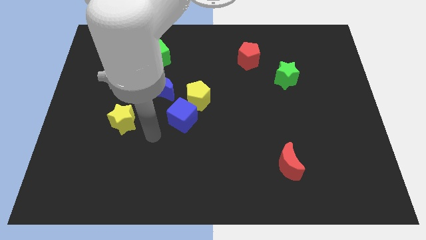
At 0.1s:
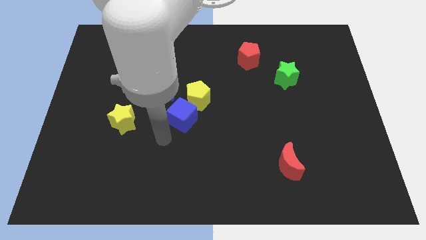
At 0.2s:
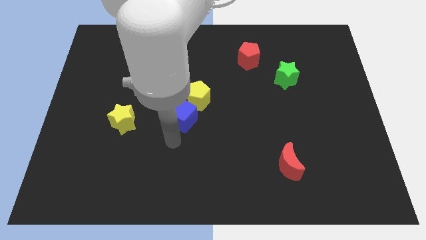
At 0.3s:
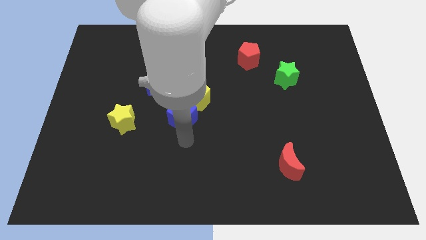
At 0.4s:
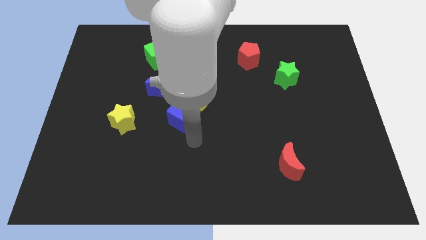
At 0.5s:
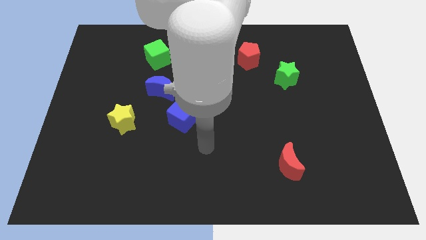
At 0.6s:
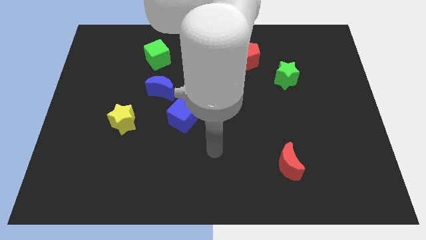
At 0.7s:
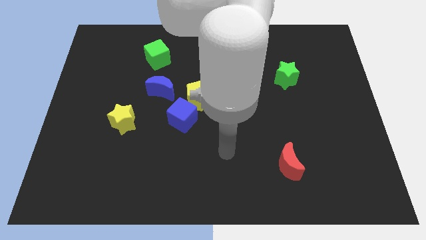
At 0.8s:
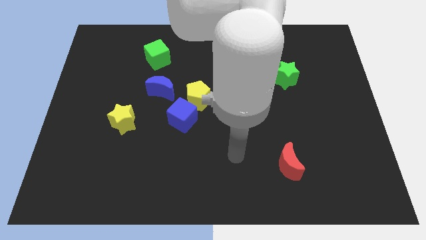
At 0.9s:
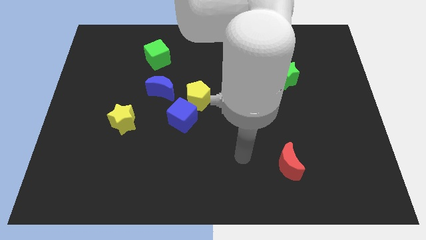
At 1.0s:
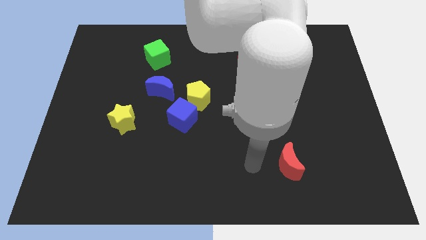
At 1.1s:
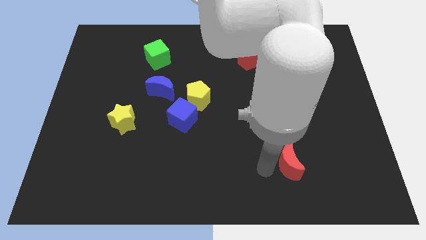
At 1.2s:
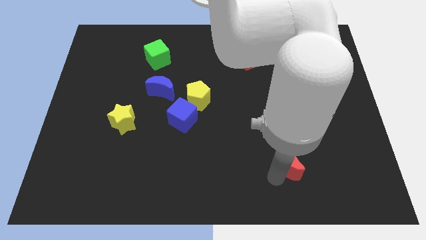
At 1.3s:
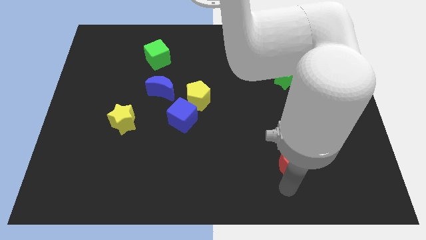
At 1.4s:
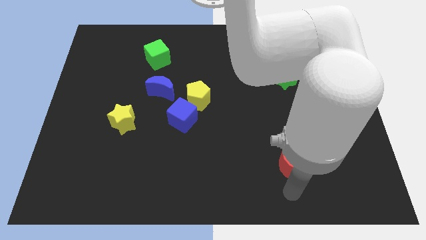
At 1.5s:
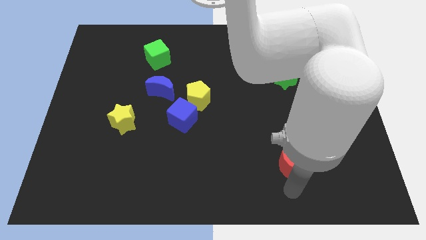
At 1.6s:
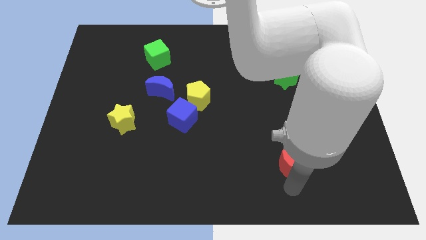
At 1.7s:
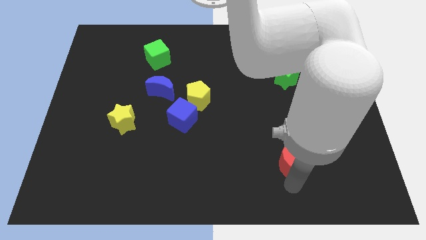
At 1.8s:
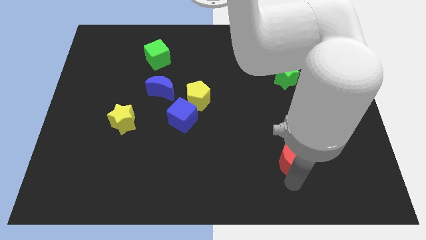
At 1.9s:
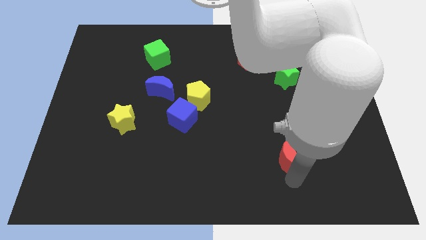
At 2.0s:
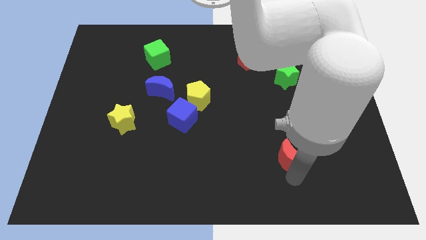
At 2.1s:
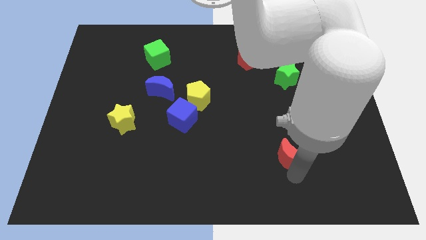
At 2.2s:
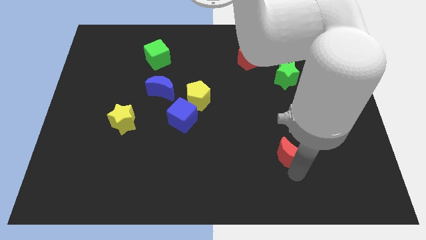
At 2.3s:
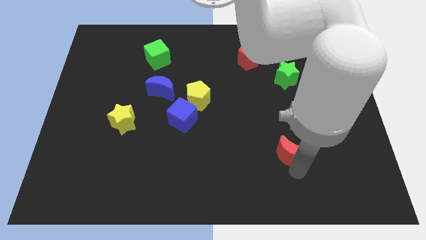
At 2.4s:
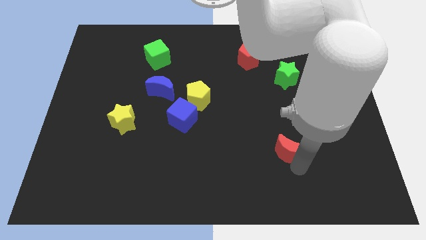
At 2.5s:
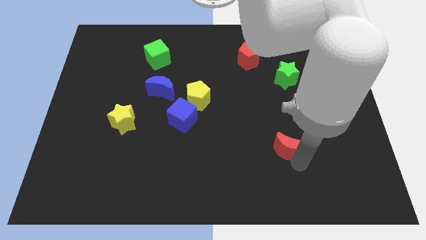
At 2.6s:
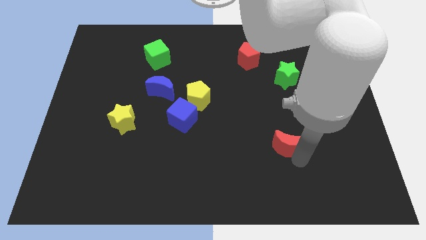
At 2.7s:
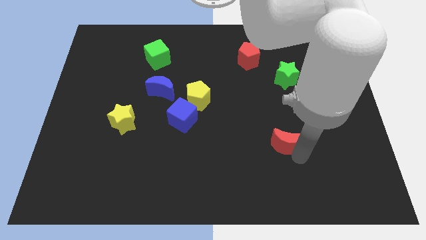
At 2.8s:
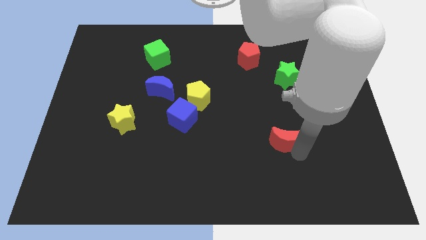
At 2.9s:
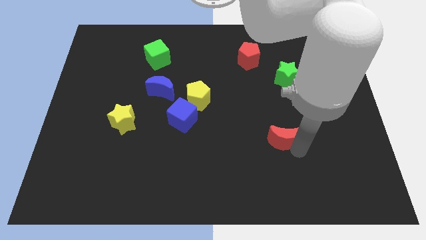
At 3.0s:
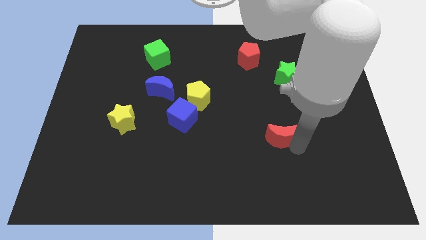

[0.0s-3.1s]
move the red moon a little upwards

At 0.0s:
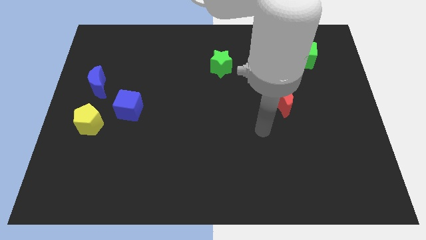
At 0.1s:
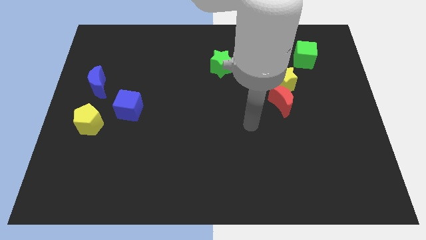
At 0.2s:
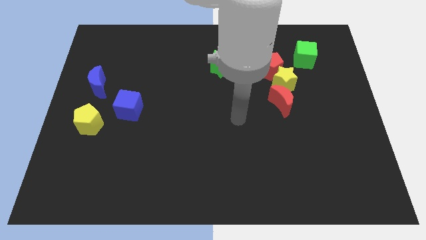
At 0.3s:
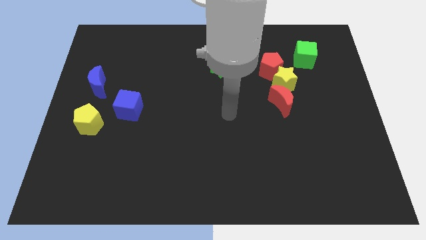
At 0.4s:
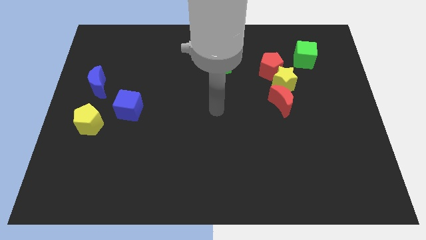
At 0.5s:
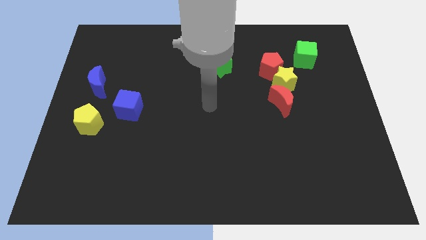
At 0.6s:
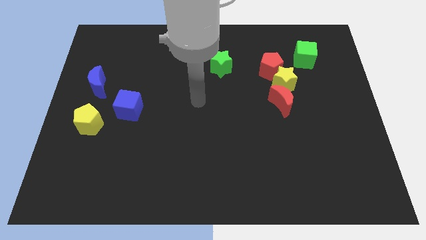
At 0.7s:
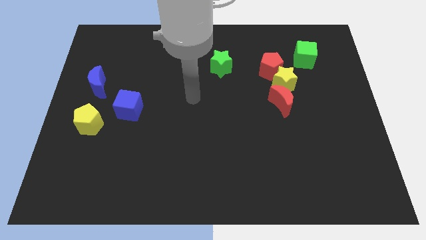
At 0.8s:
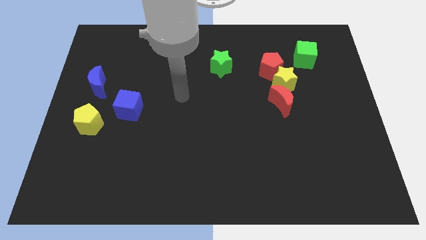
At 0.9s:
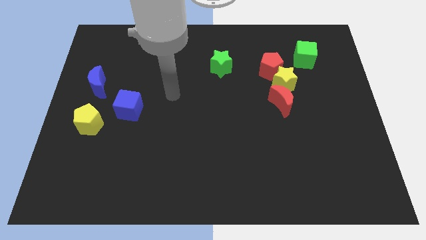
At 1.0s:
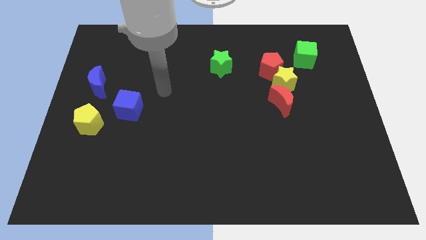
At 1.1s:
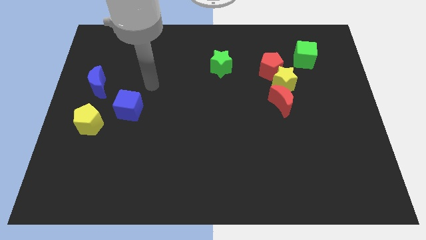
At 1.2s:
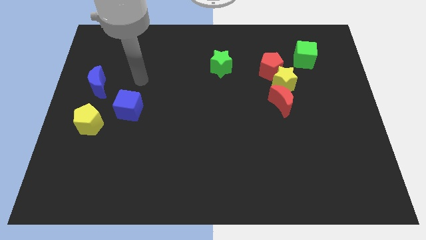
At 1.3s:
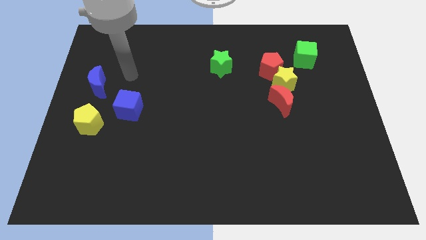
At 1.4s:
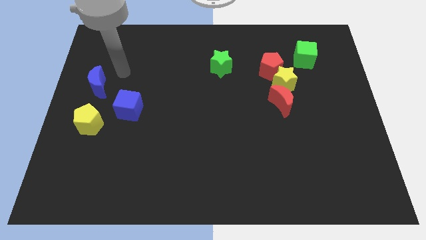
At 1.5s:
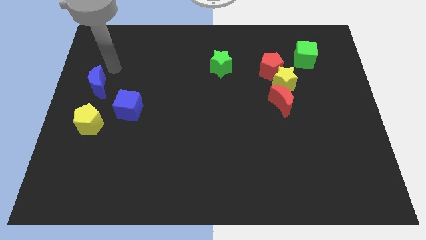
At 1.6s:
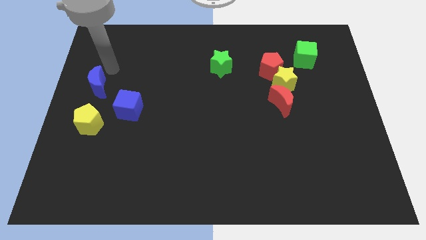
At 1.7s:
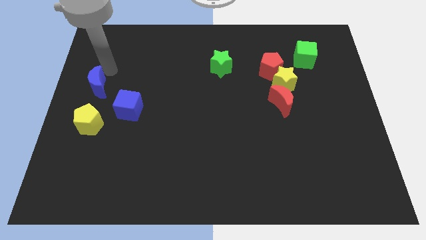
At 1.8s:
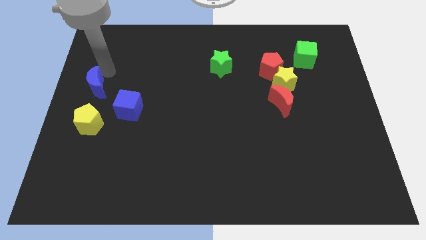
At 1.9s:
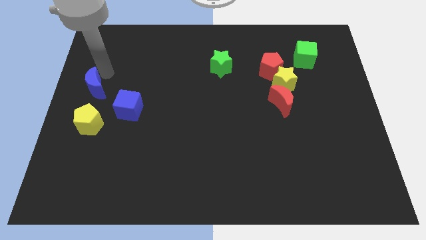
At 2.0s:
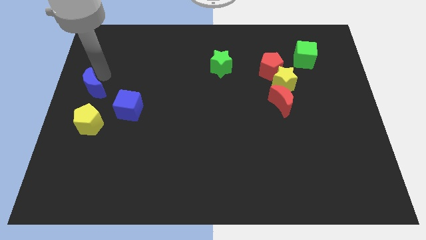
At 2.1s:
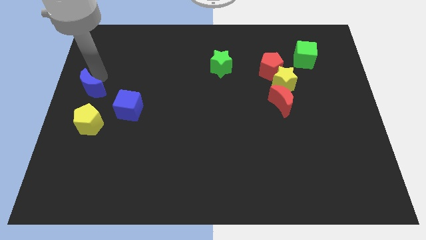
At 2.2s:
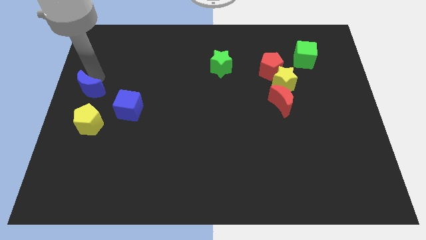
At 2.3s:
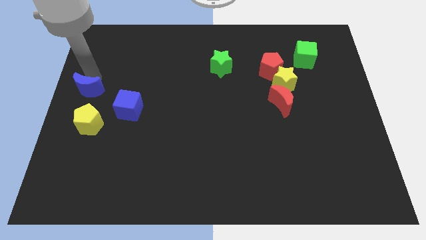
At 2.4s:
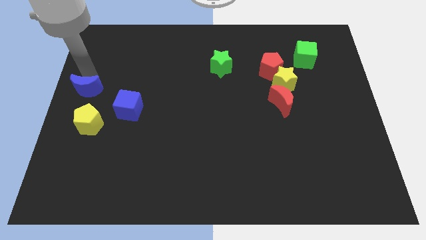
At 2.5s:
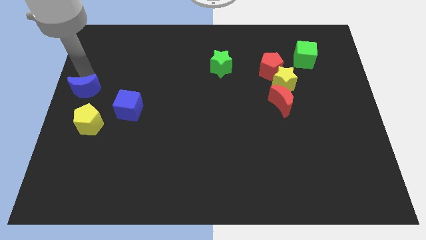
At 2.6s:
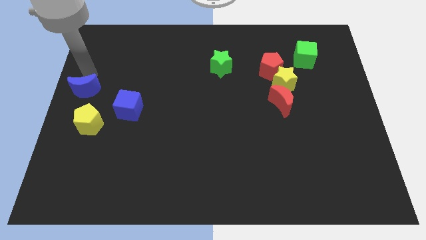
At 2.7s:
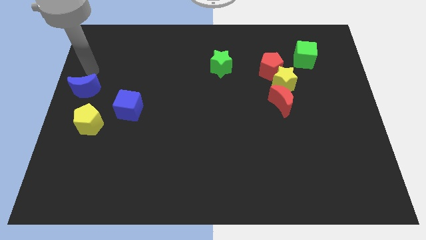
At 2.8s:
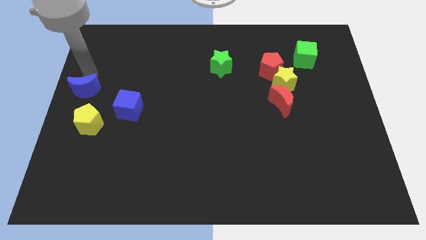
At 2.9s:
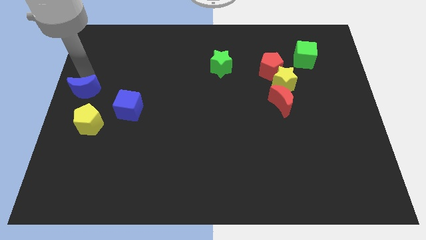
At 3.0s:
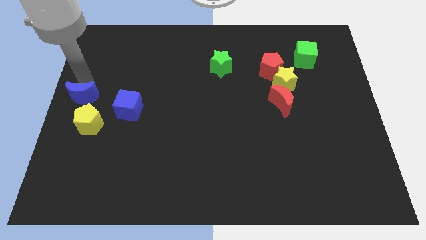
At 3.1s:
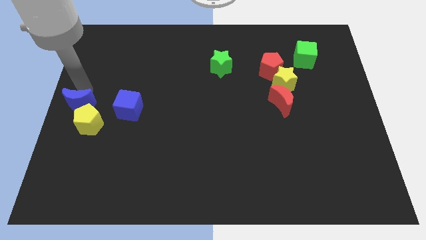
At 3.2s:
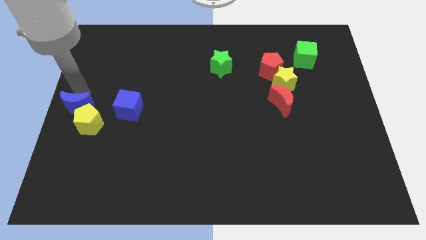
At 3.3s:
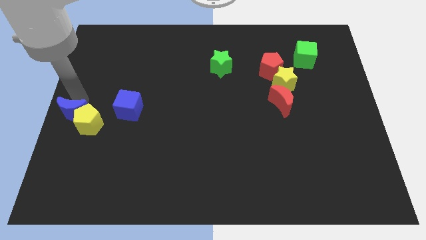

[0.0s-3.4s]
slide the blue moon slightly down

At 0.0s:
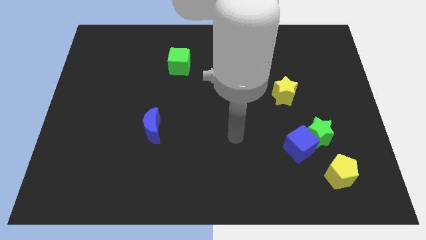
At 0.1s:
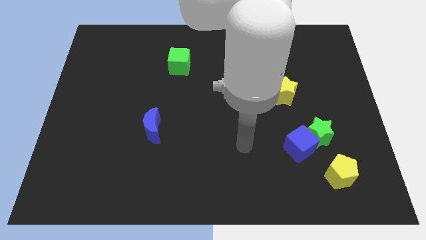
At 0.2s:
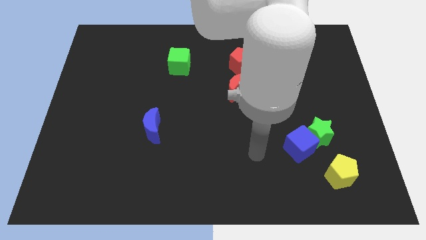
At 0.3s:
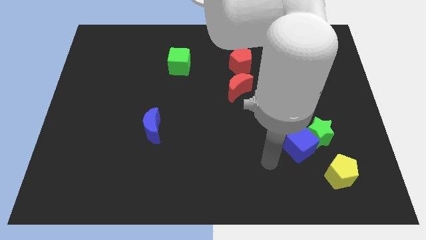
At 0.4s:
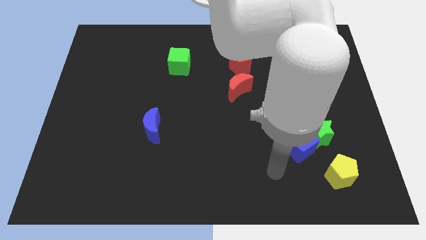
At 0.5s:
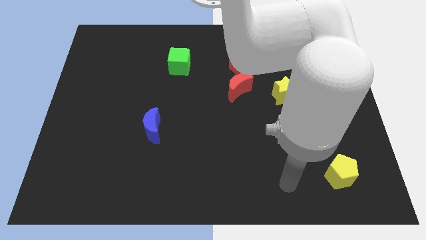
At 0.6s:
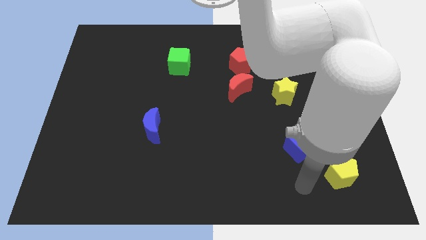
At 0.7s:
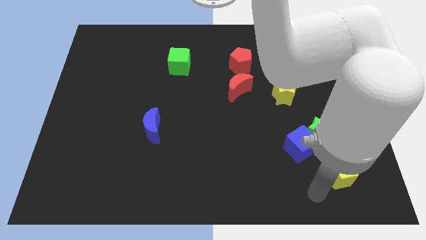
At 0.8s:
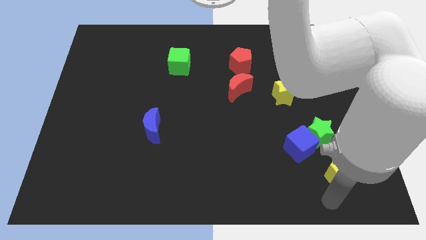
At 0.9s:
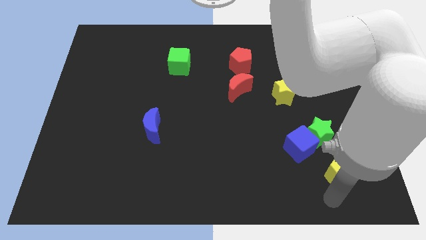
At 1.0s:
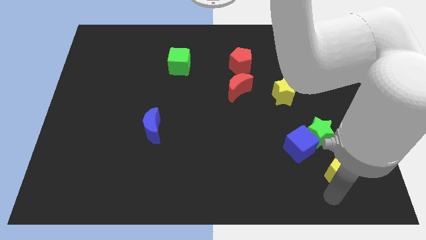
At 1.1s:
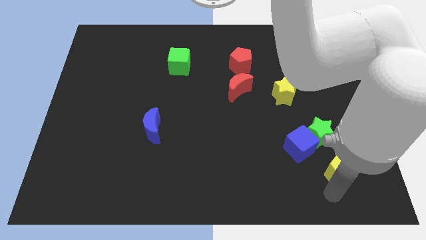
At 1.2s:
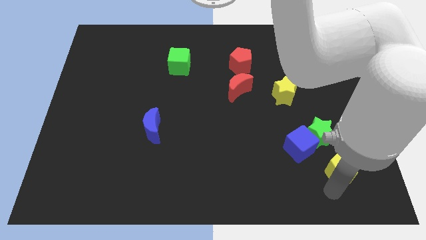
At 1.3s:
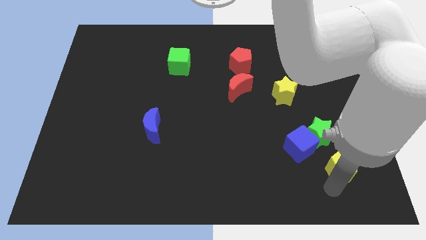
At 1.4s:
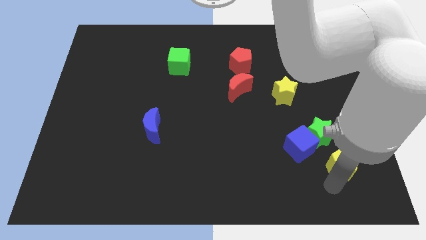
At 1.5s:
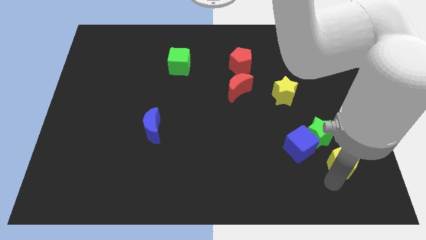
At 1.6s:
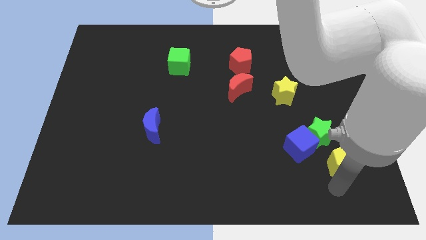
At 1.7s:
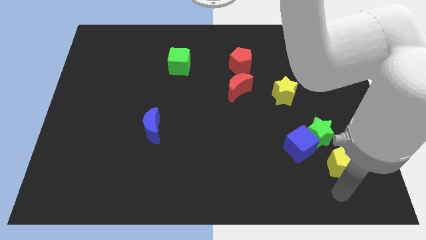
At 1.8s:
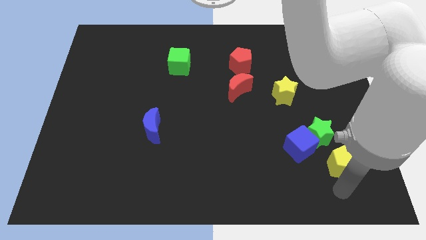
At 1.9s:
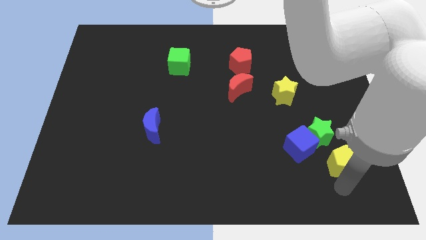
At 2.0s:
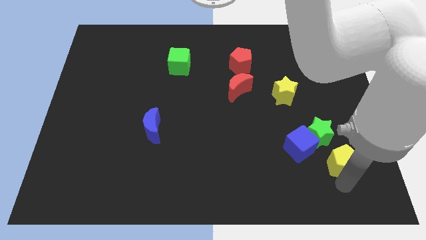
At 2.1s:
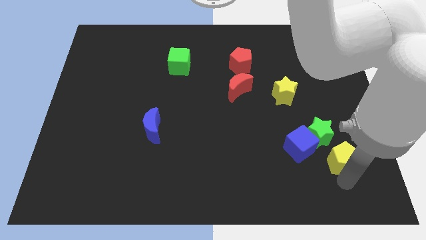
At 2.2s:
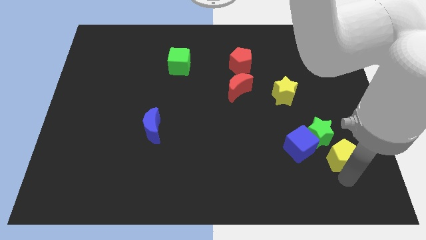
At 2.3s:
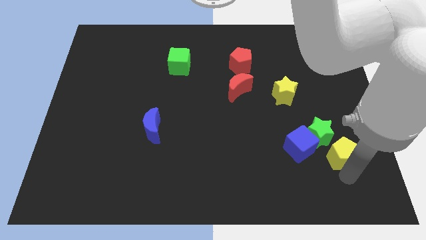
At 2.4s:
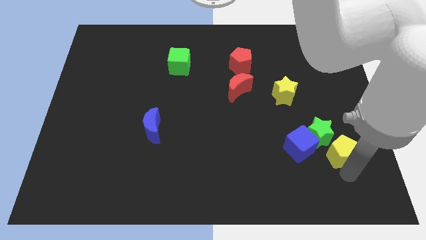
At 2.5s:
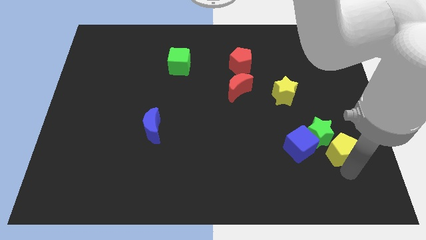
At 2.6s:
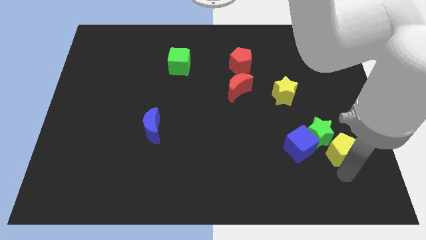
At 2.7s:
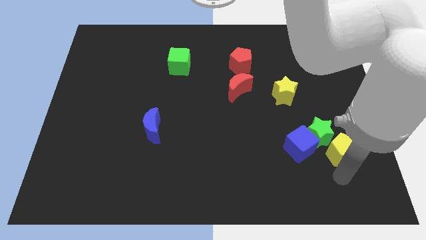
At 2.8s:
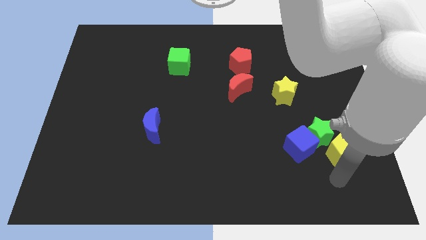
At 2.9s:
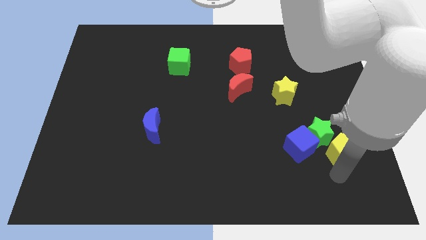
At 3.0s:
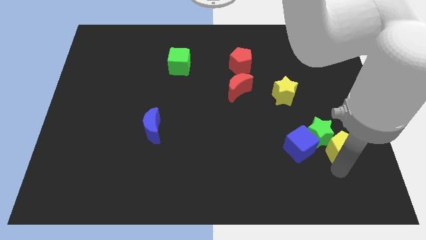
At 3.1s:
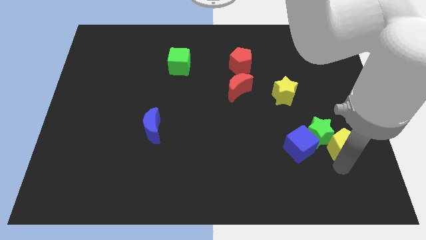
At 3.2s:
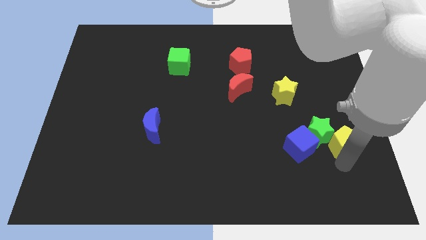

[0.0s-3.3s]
slide the yellow pentagon upwards a little bit
